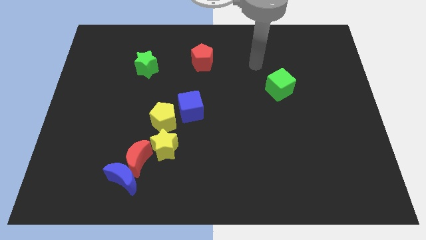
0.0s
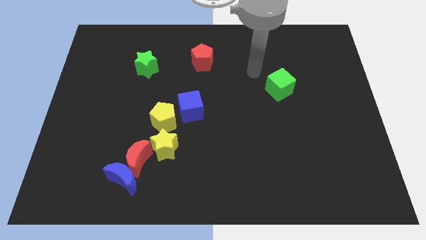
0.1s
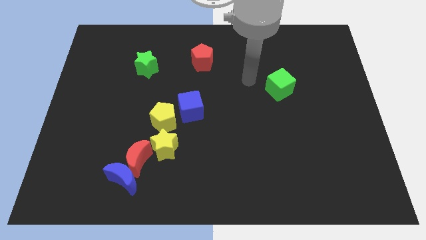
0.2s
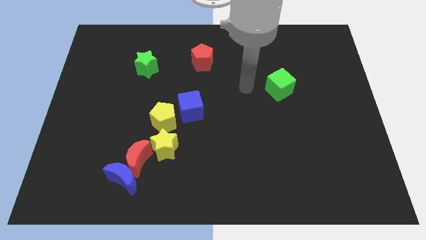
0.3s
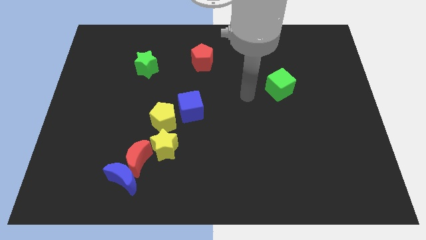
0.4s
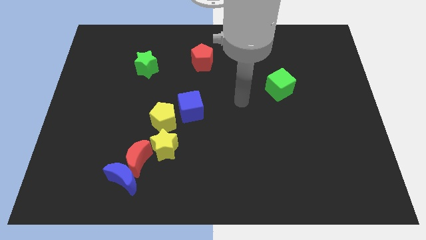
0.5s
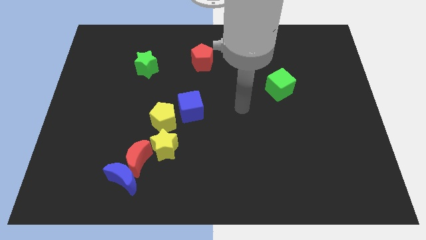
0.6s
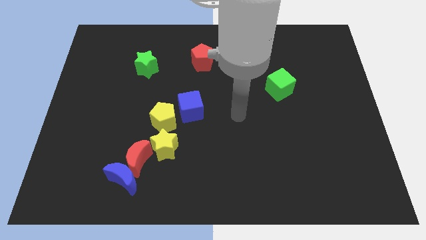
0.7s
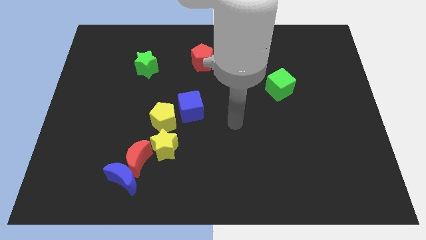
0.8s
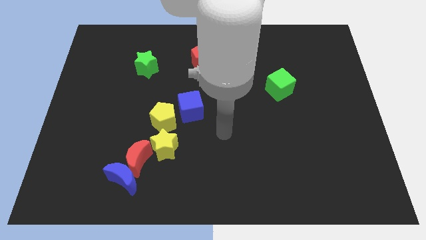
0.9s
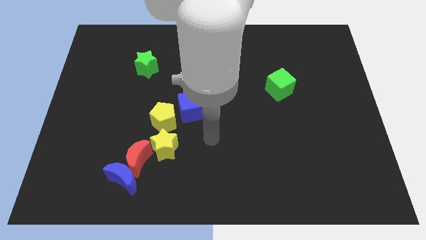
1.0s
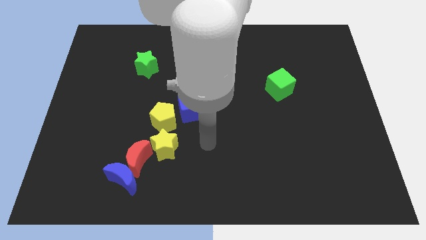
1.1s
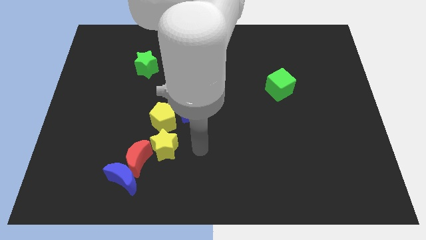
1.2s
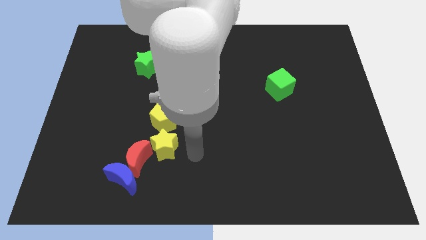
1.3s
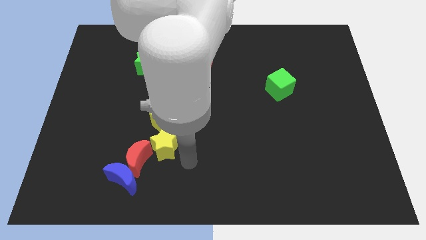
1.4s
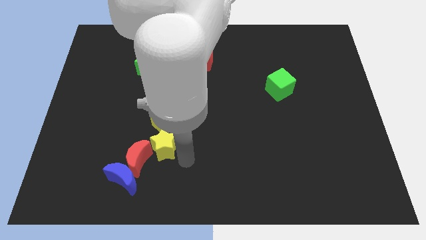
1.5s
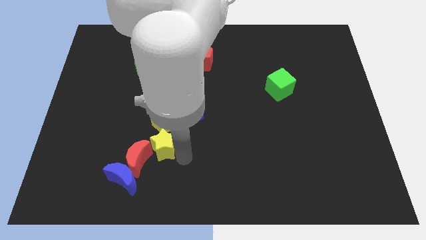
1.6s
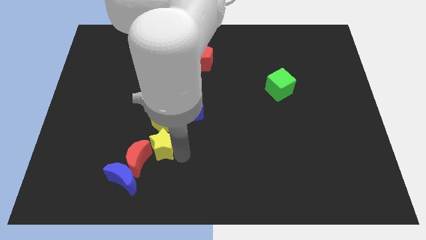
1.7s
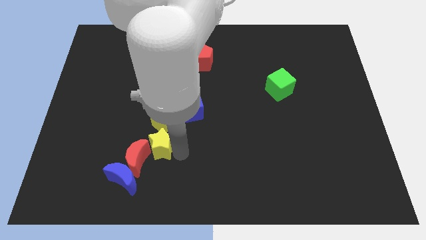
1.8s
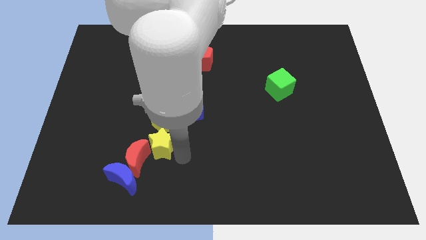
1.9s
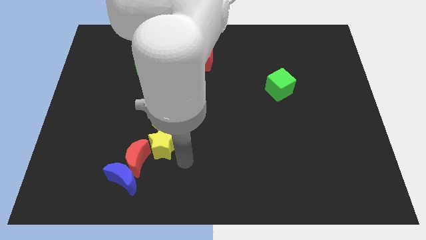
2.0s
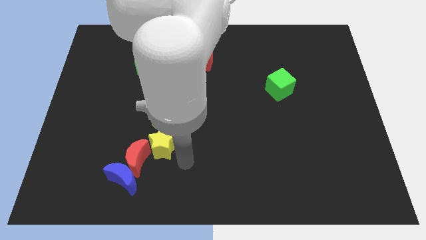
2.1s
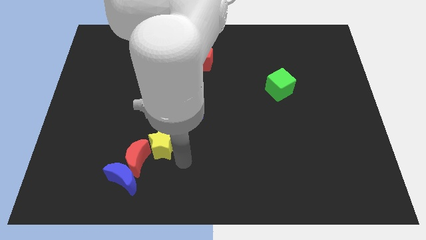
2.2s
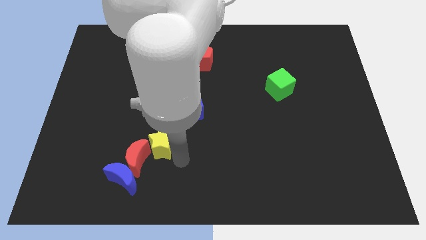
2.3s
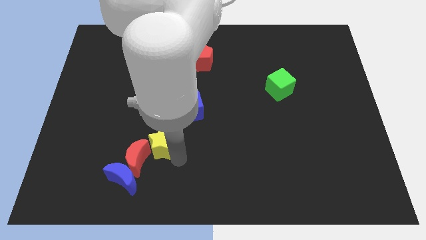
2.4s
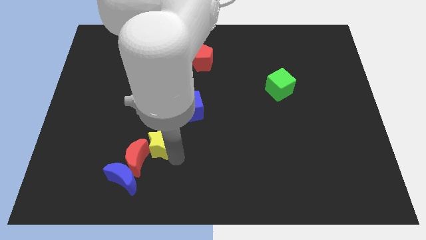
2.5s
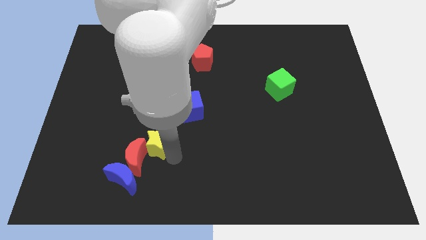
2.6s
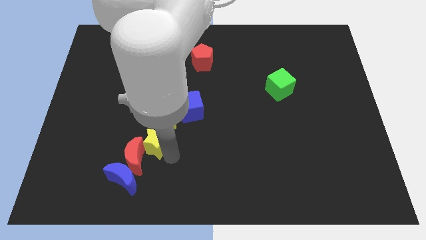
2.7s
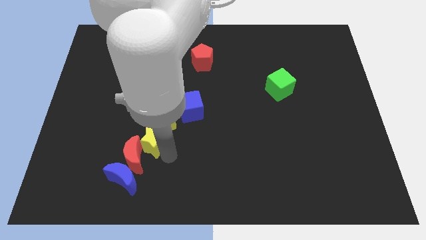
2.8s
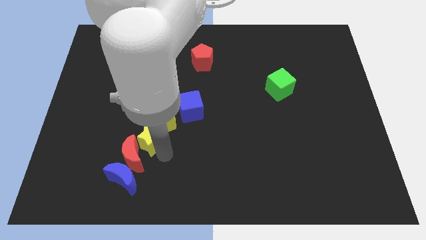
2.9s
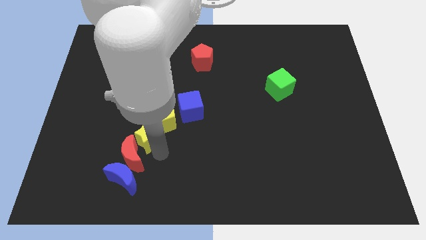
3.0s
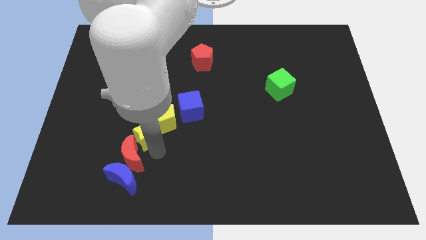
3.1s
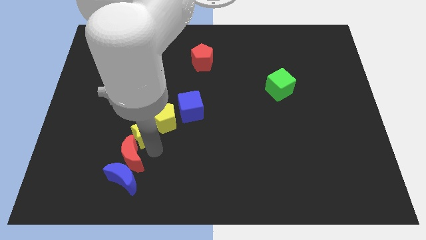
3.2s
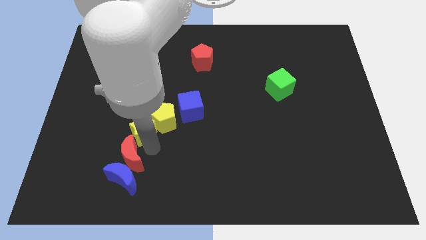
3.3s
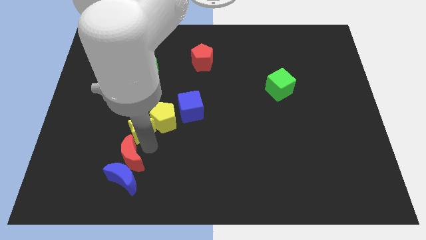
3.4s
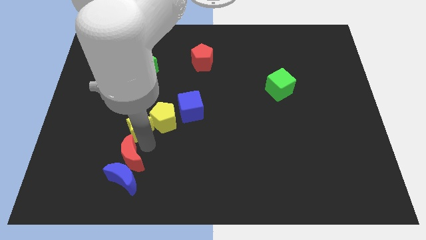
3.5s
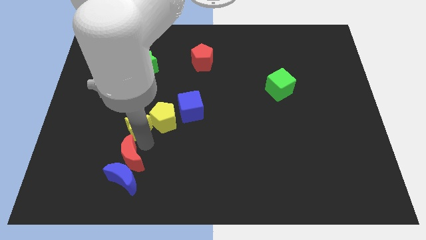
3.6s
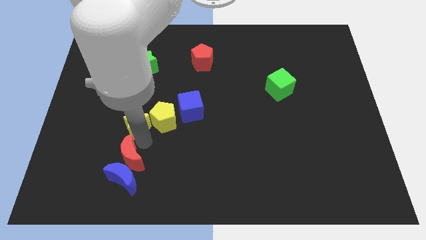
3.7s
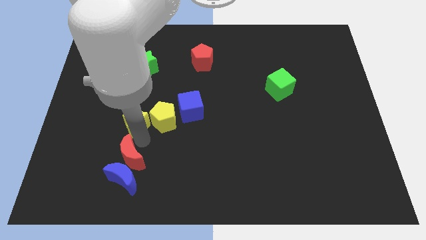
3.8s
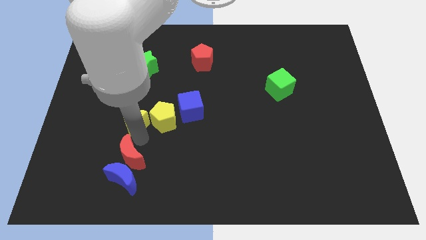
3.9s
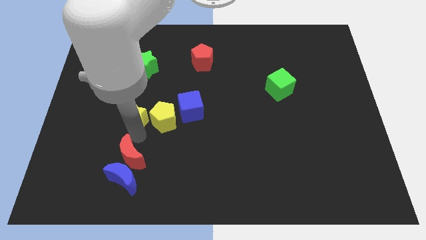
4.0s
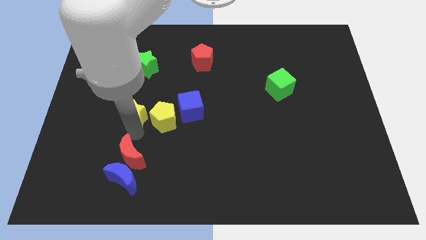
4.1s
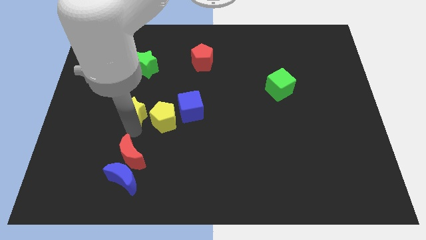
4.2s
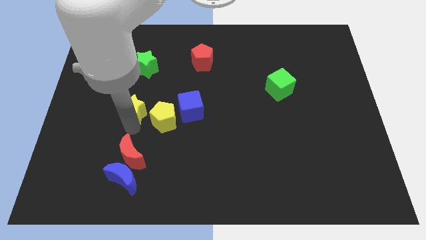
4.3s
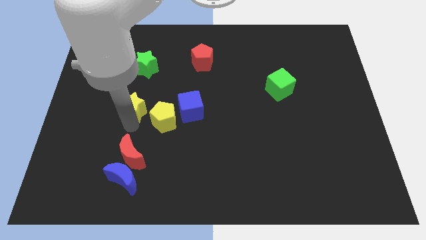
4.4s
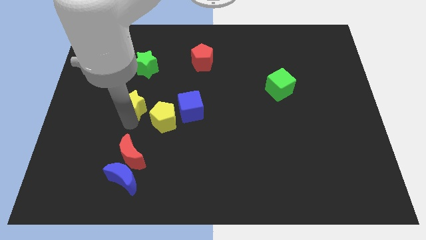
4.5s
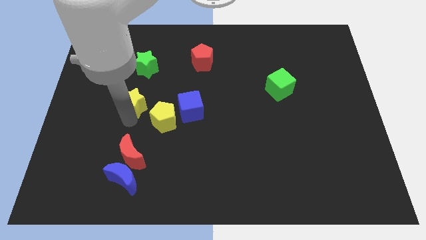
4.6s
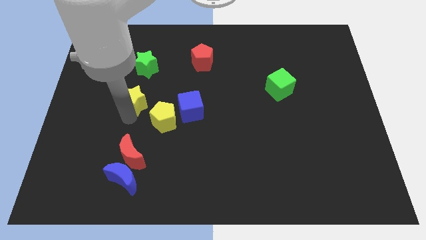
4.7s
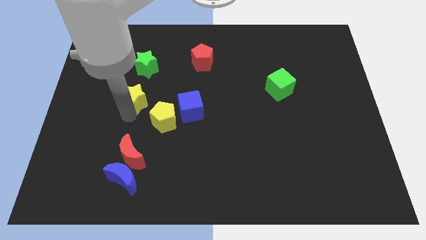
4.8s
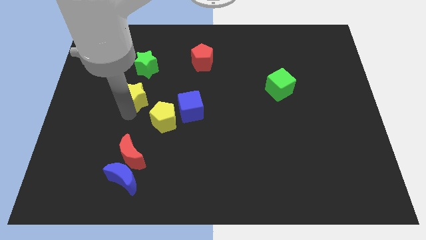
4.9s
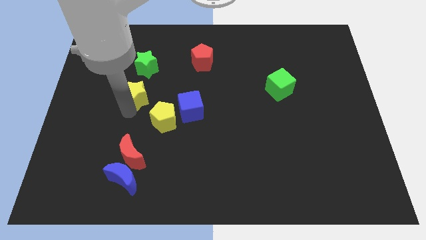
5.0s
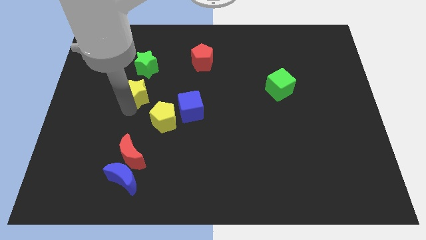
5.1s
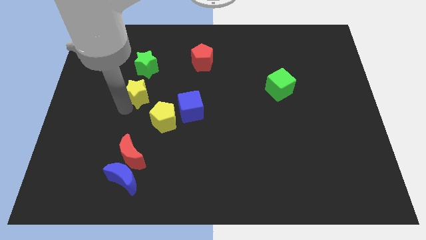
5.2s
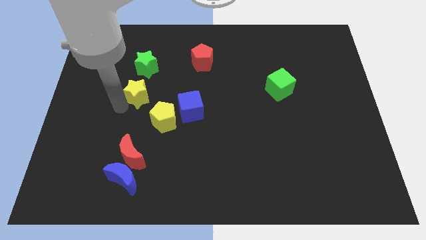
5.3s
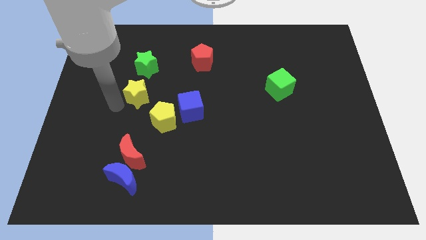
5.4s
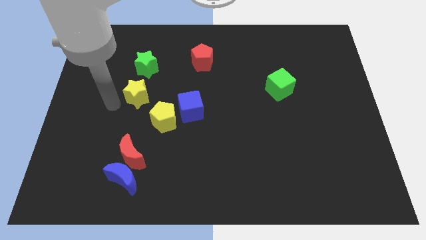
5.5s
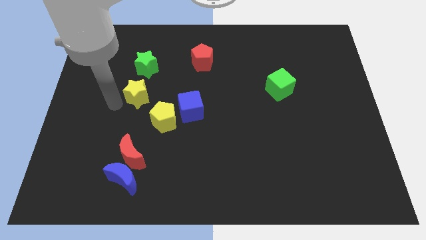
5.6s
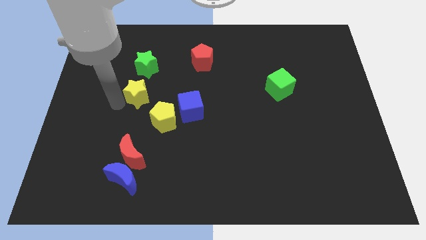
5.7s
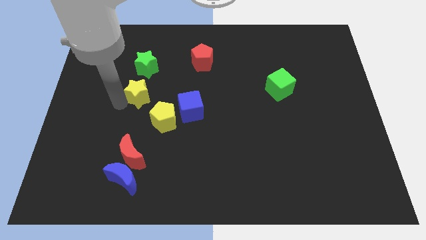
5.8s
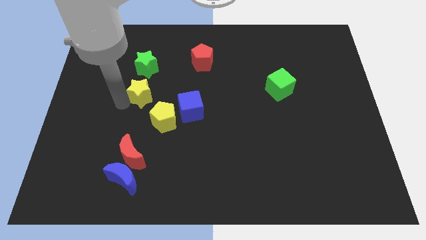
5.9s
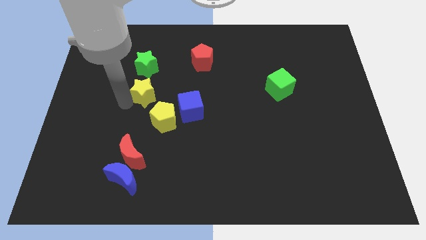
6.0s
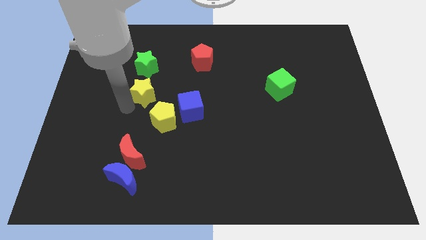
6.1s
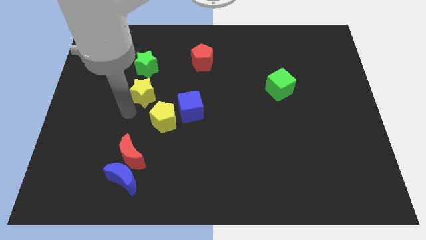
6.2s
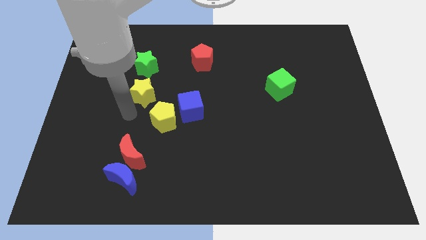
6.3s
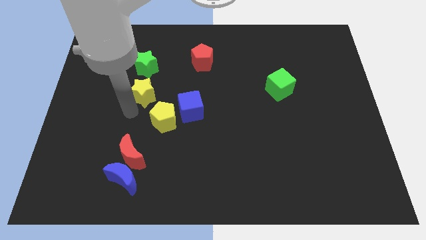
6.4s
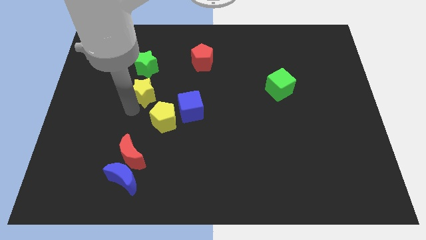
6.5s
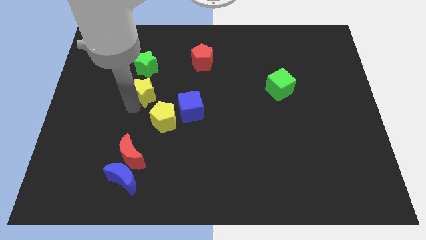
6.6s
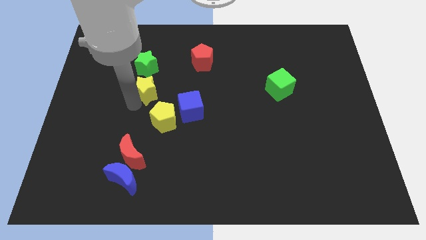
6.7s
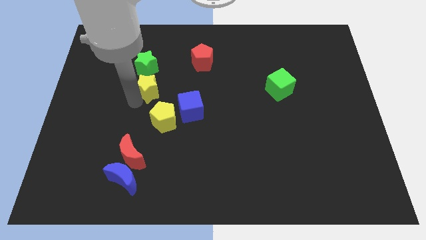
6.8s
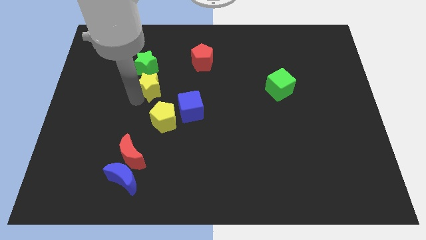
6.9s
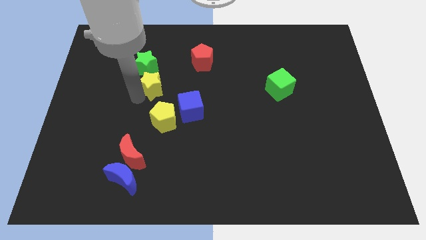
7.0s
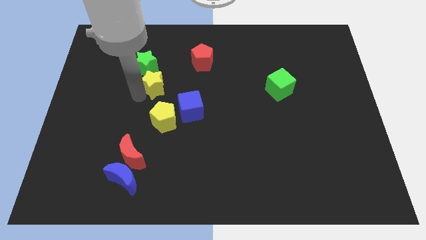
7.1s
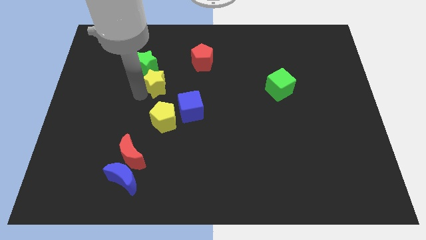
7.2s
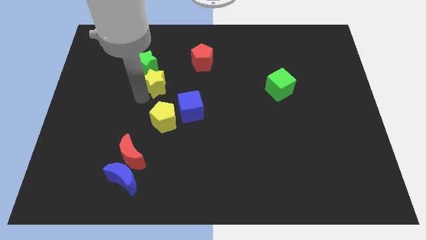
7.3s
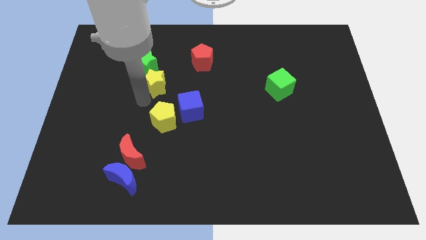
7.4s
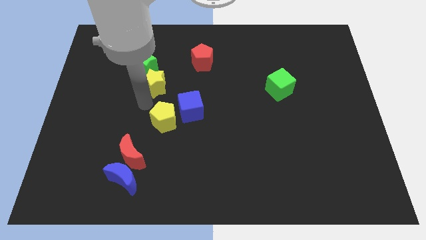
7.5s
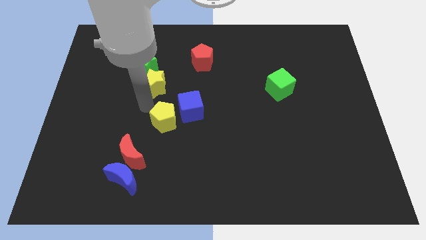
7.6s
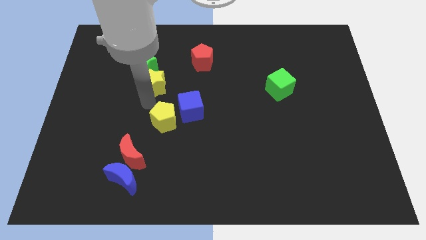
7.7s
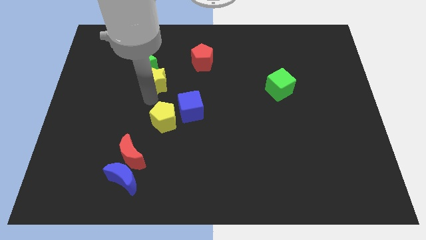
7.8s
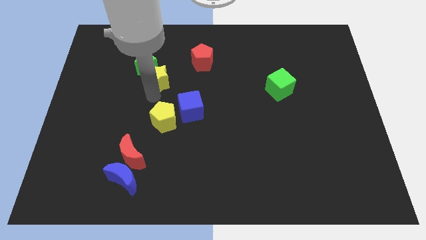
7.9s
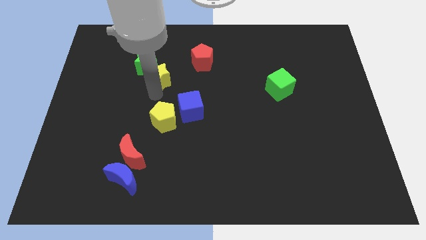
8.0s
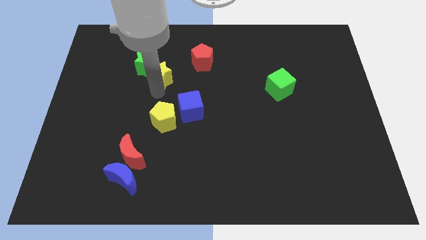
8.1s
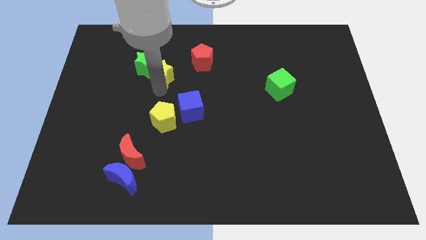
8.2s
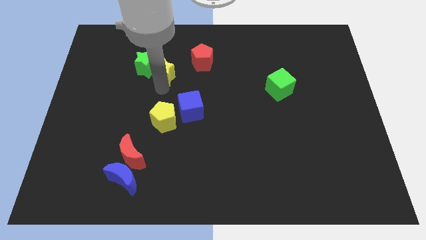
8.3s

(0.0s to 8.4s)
move the yellow star left of the red pentagon
